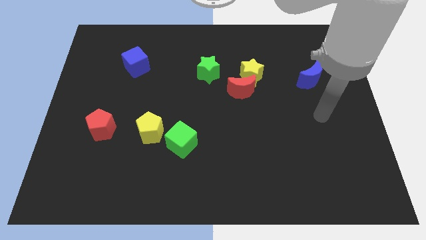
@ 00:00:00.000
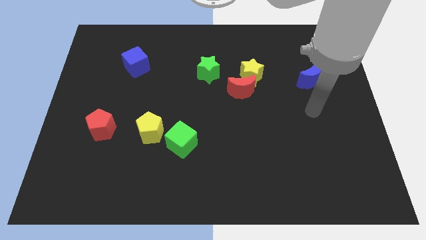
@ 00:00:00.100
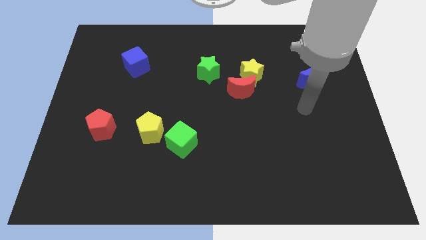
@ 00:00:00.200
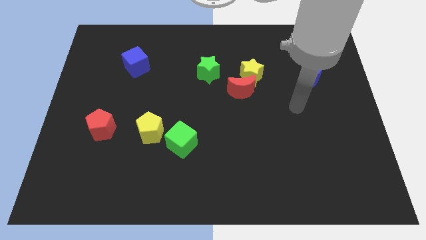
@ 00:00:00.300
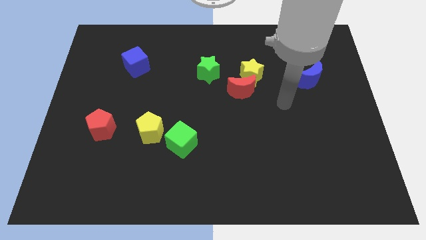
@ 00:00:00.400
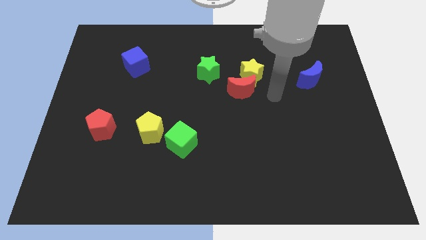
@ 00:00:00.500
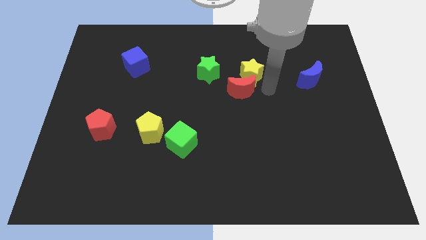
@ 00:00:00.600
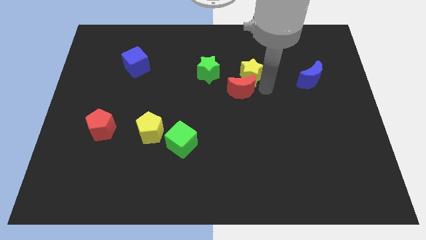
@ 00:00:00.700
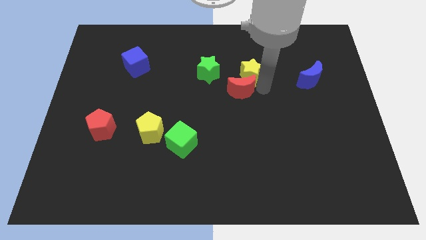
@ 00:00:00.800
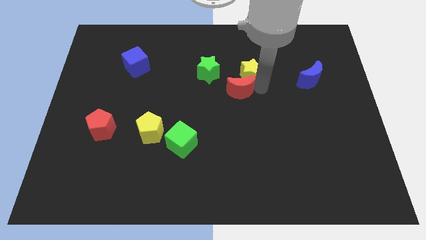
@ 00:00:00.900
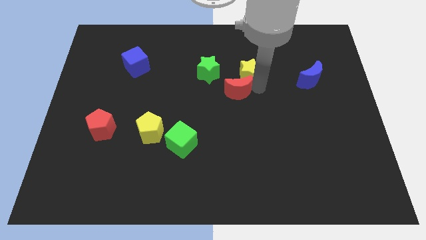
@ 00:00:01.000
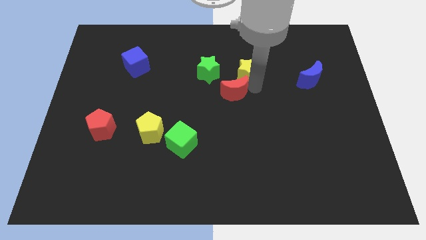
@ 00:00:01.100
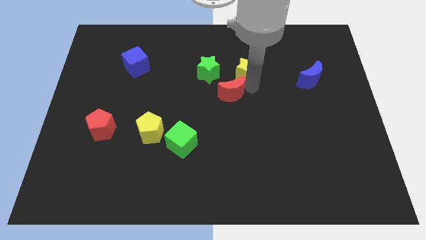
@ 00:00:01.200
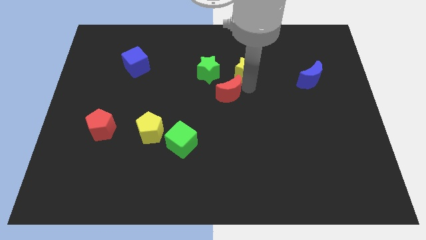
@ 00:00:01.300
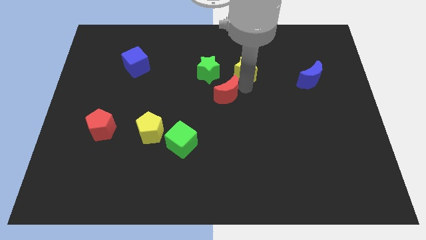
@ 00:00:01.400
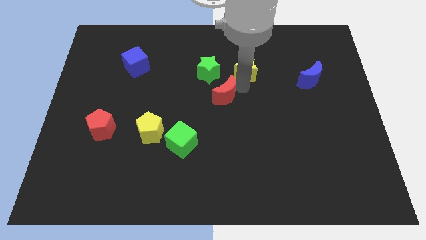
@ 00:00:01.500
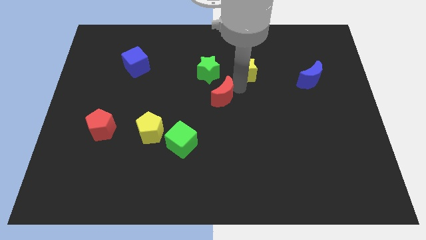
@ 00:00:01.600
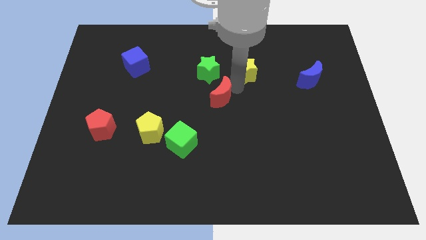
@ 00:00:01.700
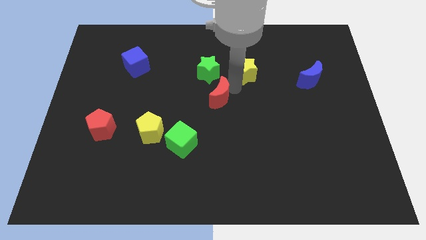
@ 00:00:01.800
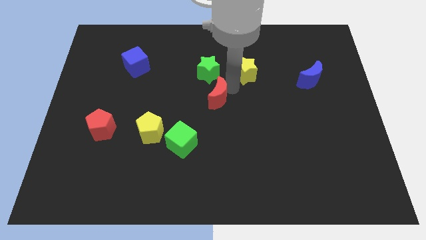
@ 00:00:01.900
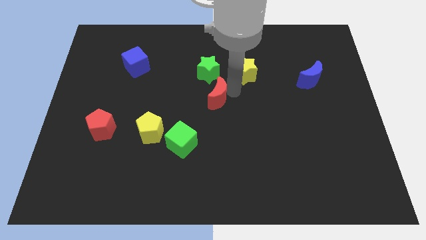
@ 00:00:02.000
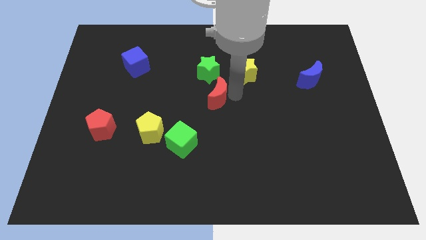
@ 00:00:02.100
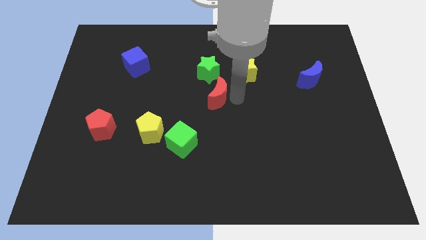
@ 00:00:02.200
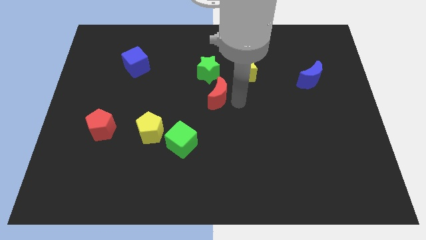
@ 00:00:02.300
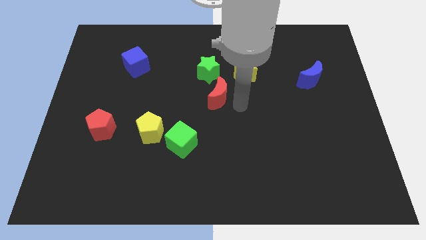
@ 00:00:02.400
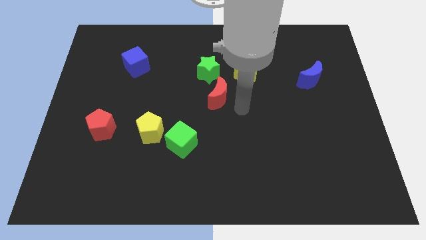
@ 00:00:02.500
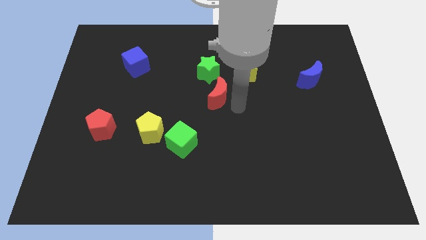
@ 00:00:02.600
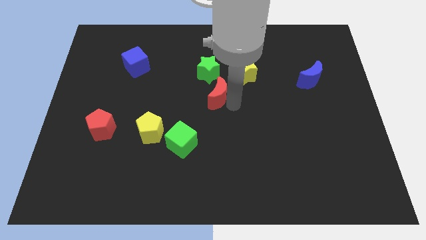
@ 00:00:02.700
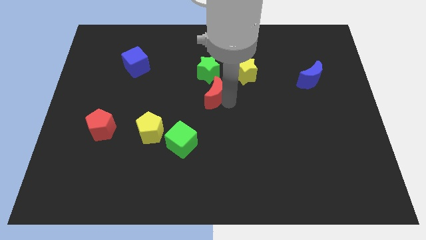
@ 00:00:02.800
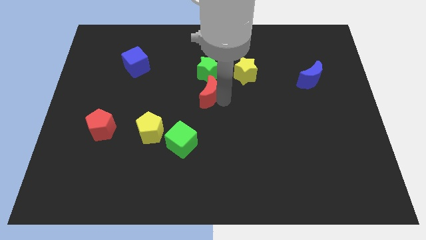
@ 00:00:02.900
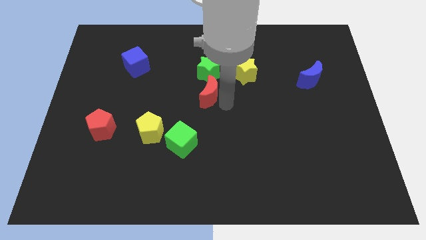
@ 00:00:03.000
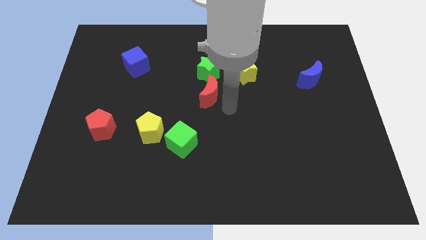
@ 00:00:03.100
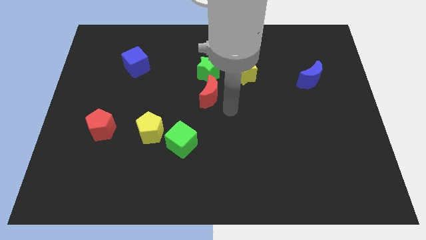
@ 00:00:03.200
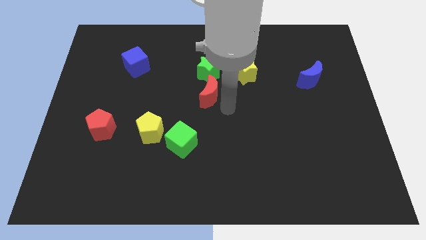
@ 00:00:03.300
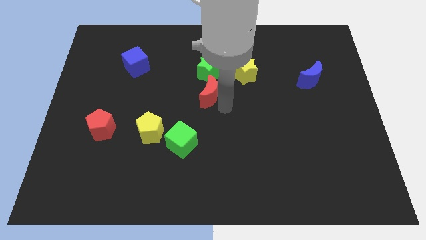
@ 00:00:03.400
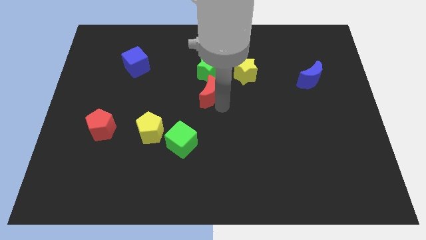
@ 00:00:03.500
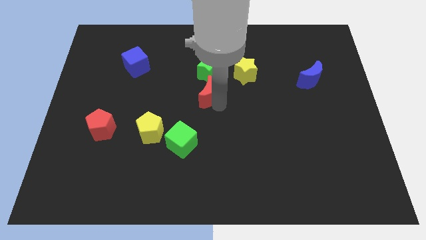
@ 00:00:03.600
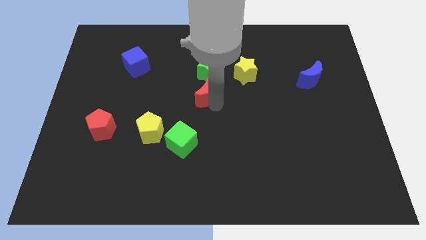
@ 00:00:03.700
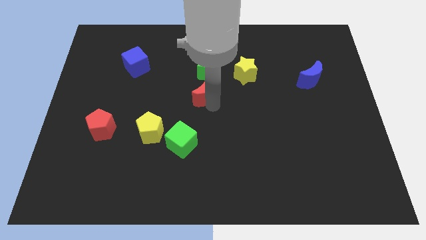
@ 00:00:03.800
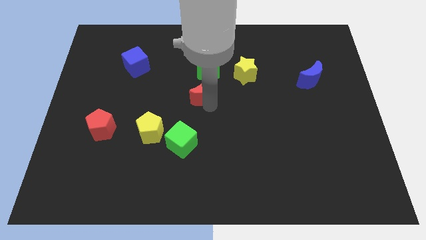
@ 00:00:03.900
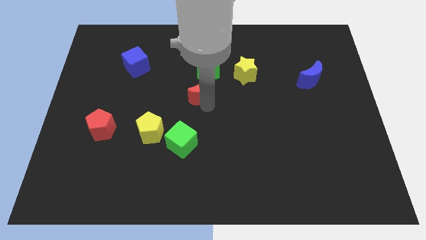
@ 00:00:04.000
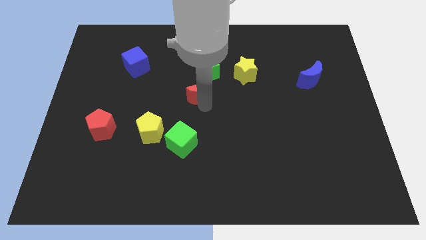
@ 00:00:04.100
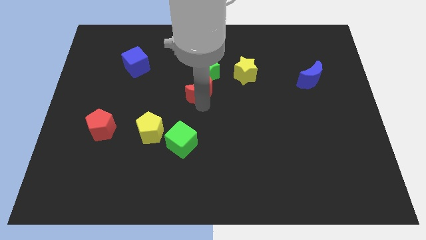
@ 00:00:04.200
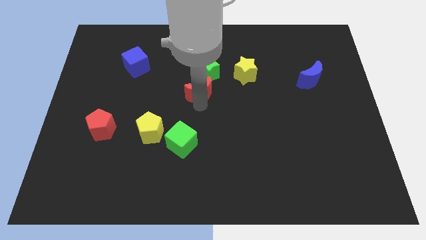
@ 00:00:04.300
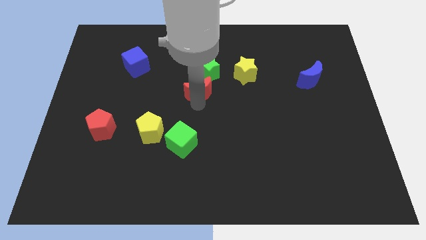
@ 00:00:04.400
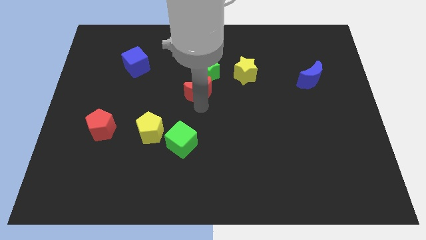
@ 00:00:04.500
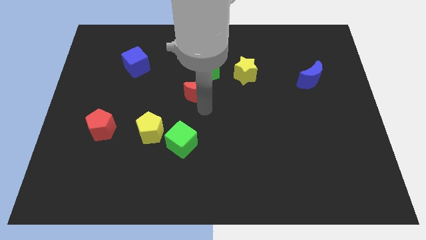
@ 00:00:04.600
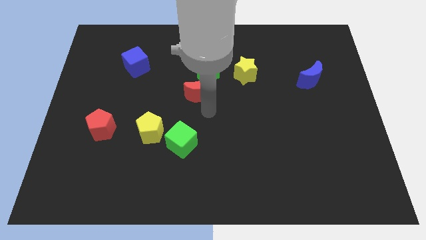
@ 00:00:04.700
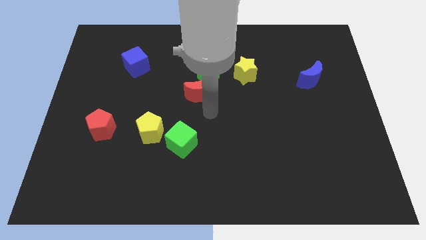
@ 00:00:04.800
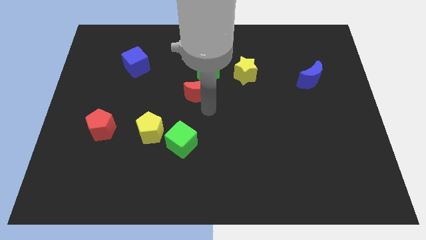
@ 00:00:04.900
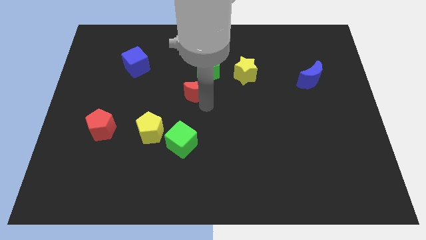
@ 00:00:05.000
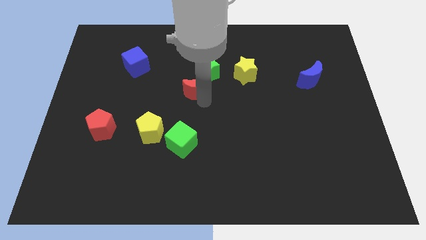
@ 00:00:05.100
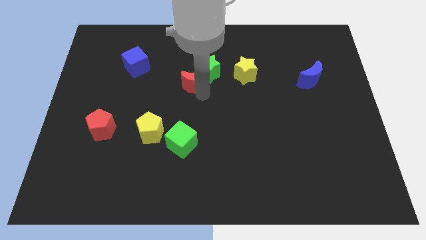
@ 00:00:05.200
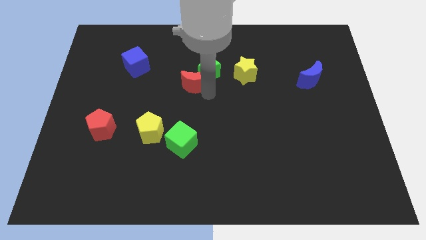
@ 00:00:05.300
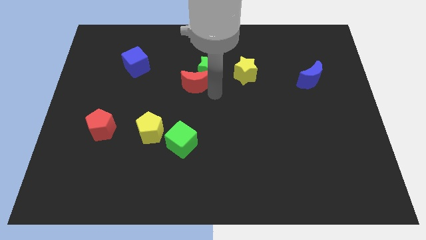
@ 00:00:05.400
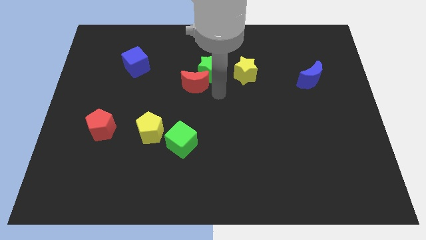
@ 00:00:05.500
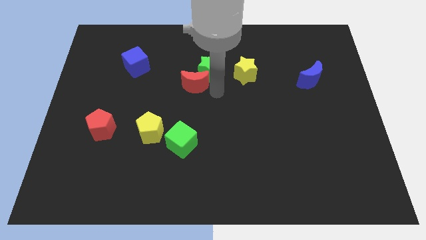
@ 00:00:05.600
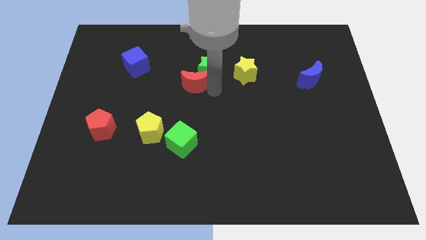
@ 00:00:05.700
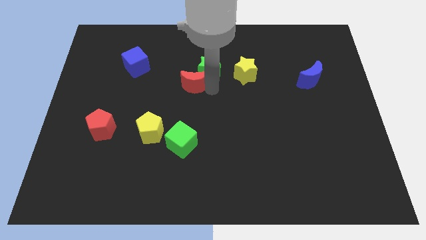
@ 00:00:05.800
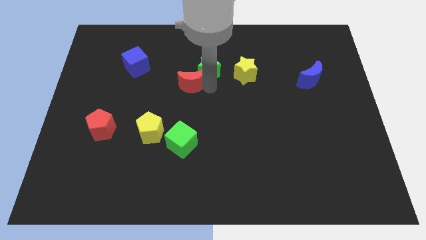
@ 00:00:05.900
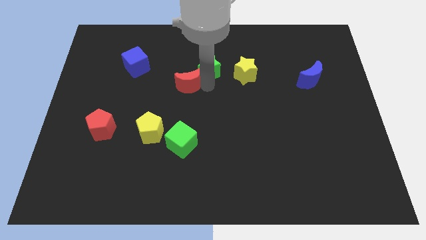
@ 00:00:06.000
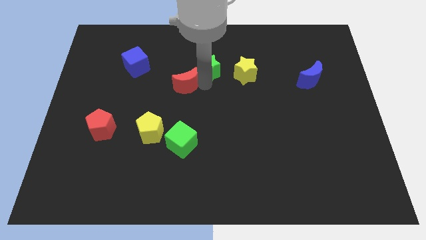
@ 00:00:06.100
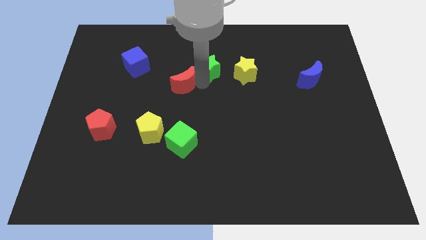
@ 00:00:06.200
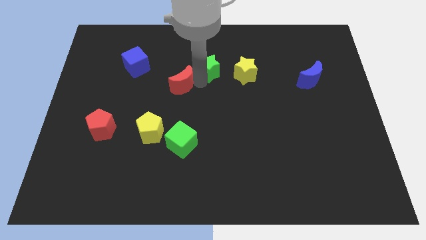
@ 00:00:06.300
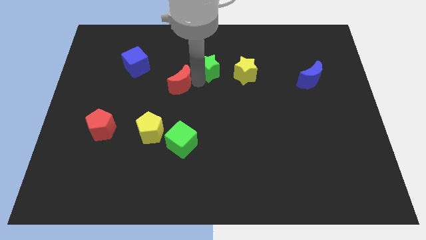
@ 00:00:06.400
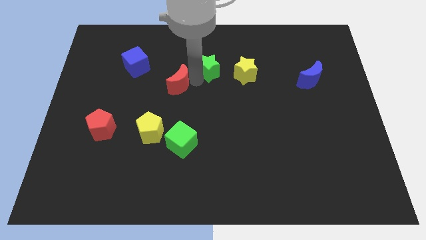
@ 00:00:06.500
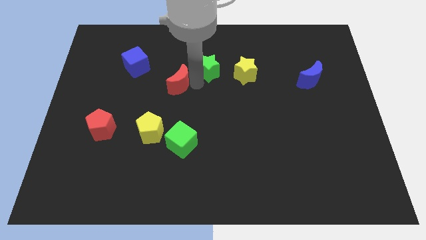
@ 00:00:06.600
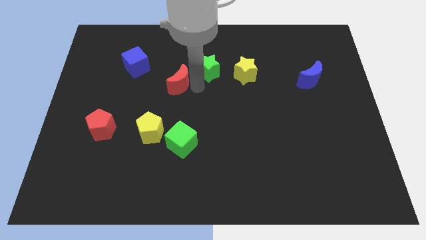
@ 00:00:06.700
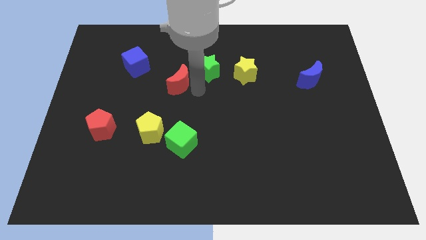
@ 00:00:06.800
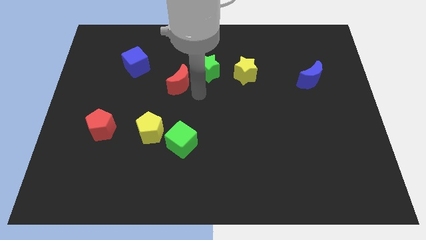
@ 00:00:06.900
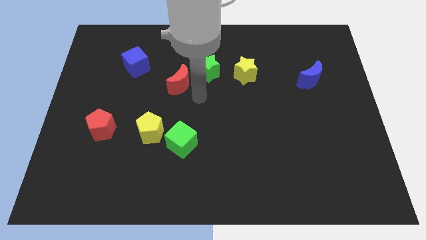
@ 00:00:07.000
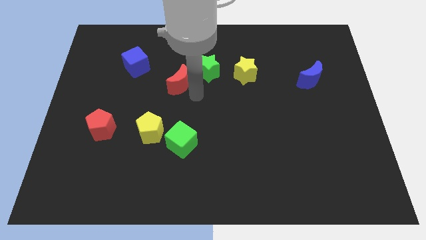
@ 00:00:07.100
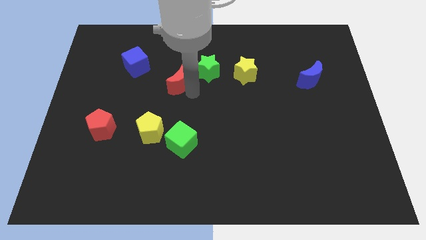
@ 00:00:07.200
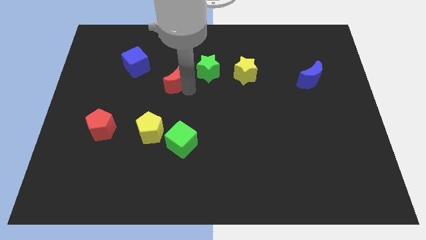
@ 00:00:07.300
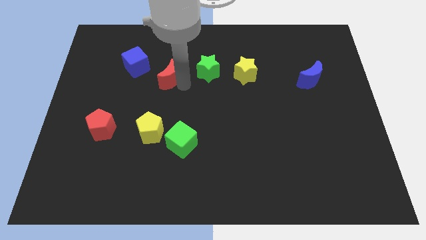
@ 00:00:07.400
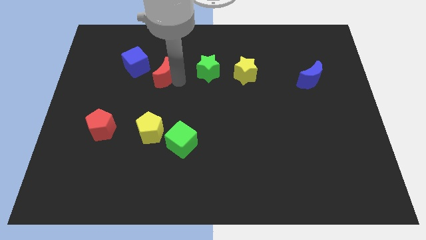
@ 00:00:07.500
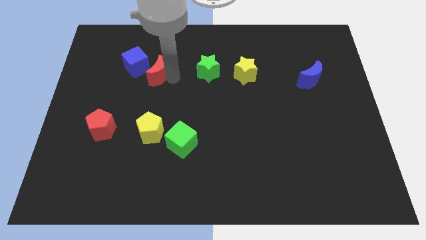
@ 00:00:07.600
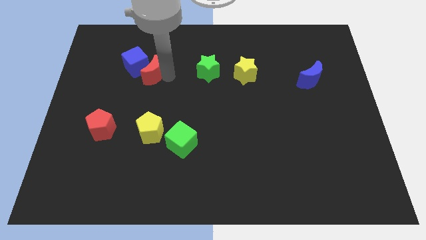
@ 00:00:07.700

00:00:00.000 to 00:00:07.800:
slide the red moon to the blue cube
